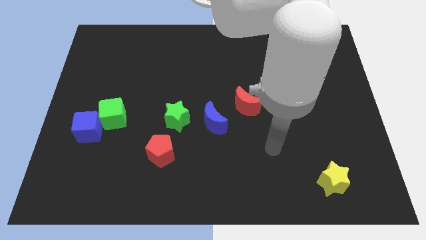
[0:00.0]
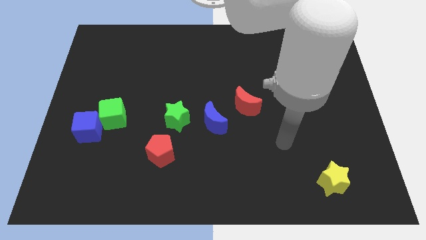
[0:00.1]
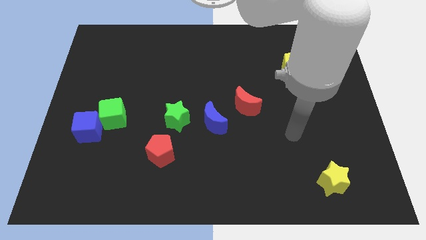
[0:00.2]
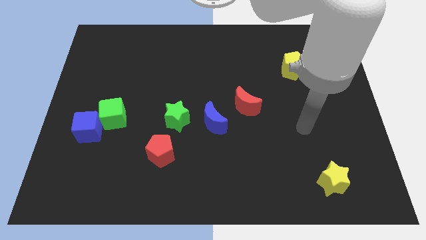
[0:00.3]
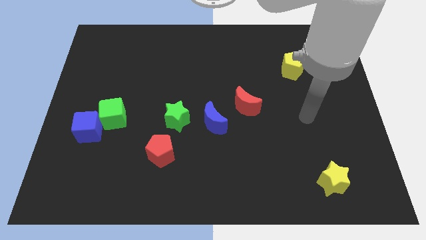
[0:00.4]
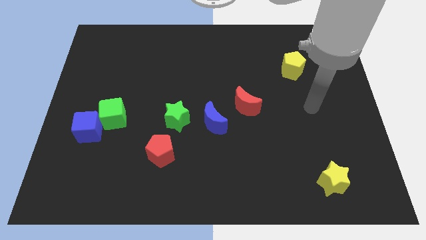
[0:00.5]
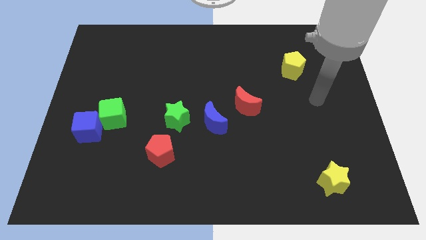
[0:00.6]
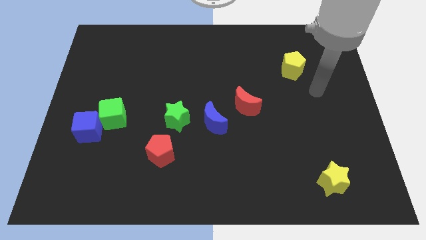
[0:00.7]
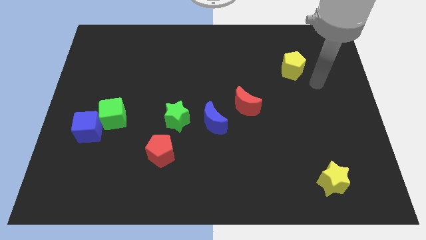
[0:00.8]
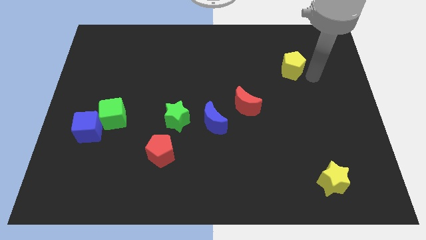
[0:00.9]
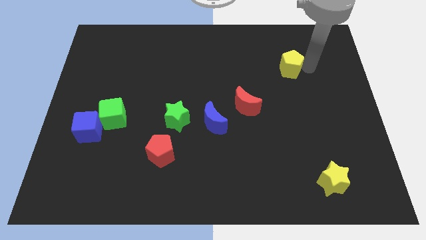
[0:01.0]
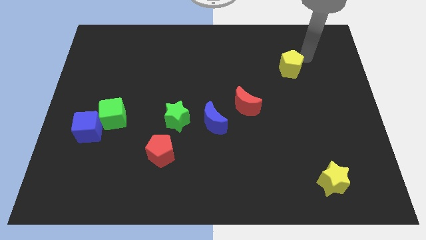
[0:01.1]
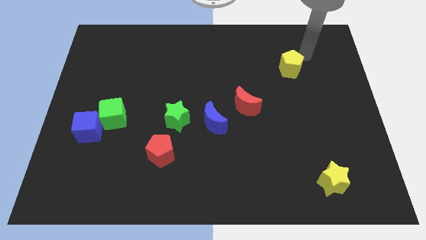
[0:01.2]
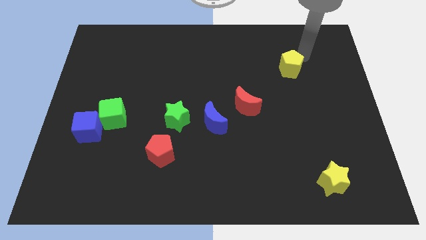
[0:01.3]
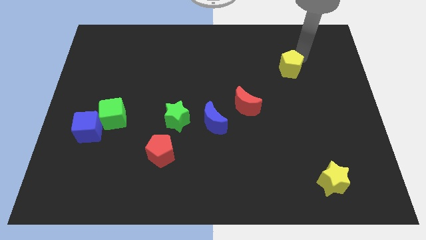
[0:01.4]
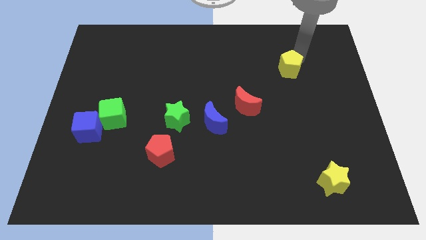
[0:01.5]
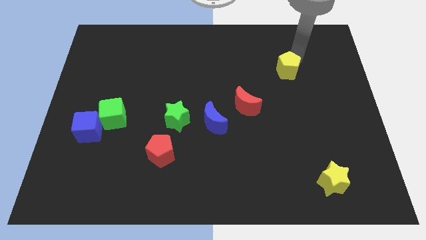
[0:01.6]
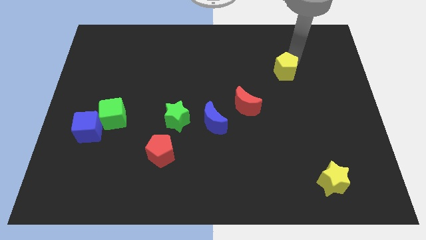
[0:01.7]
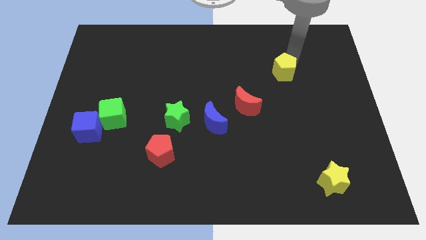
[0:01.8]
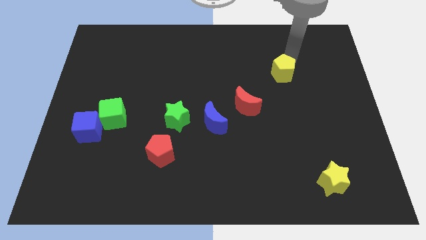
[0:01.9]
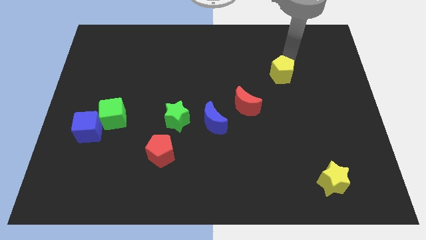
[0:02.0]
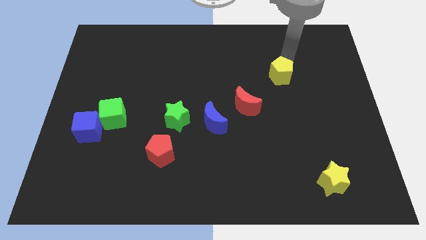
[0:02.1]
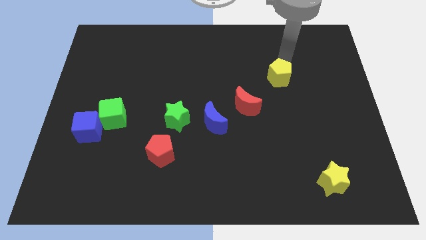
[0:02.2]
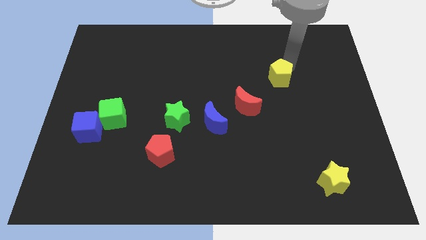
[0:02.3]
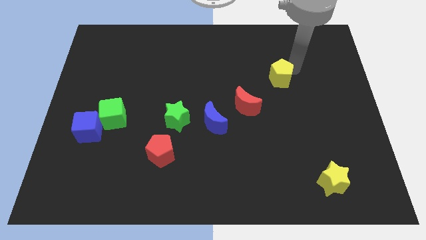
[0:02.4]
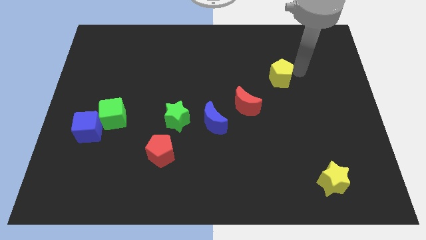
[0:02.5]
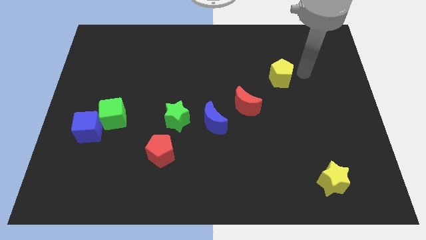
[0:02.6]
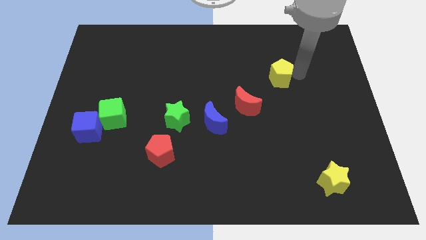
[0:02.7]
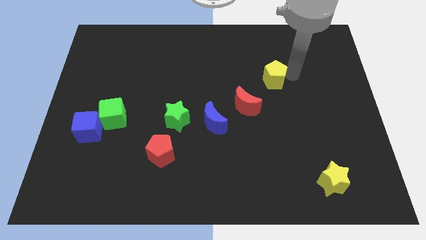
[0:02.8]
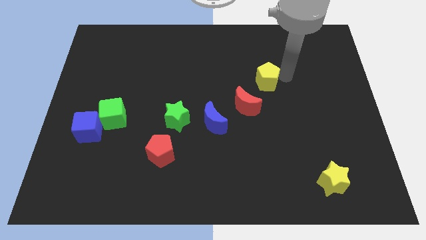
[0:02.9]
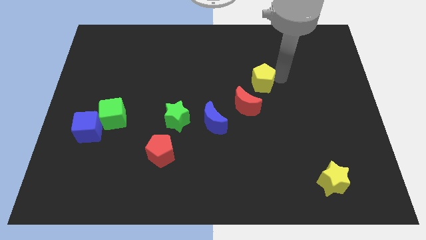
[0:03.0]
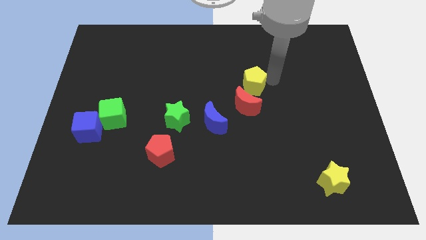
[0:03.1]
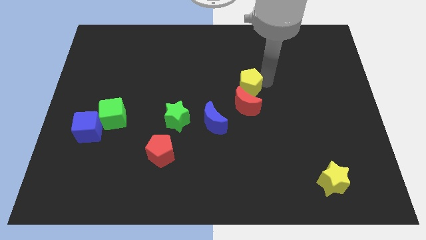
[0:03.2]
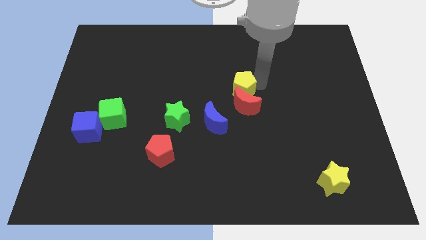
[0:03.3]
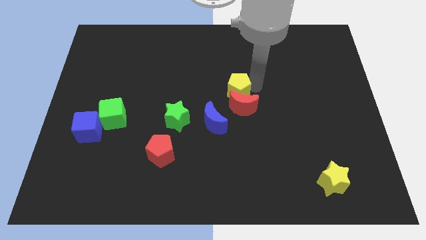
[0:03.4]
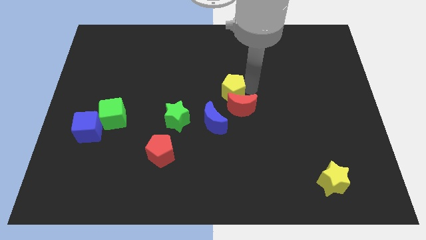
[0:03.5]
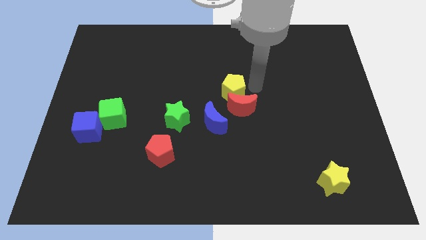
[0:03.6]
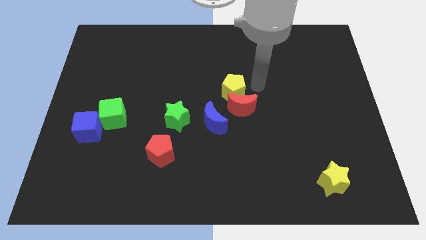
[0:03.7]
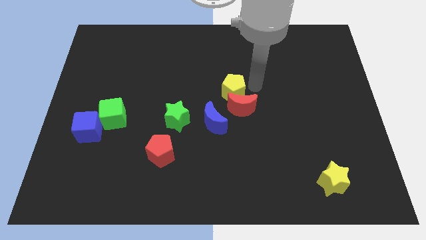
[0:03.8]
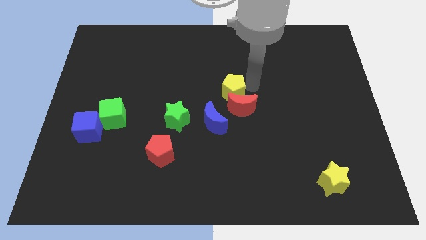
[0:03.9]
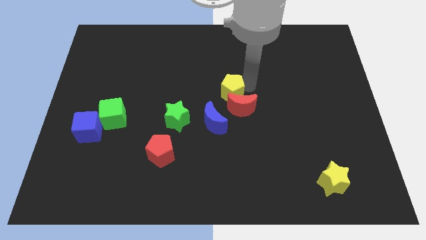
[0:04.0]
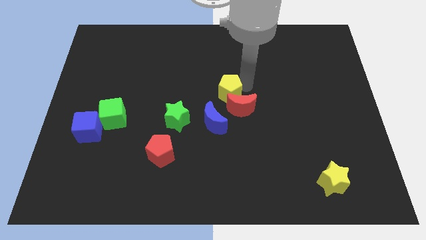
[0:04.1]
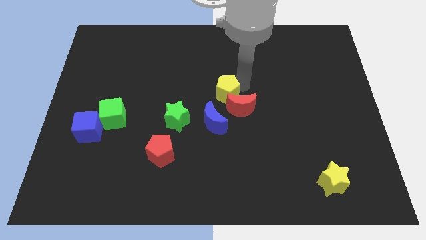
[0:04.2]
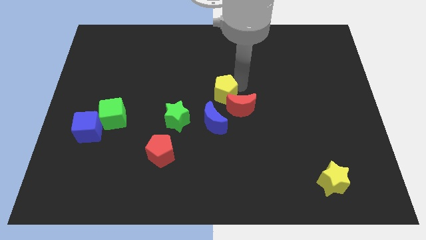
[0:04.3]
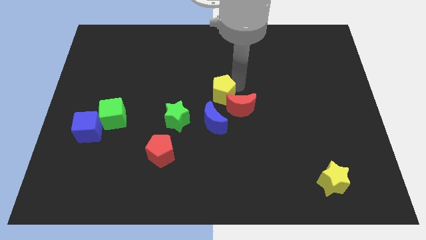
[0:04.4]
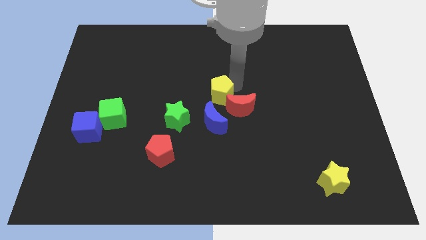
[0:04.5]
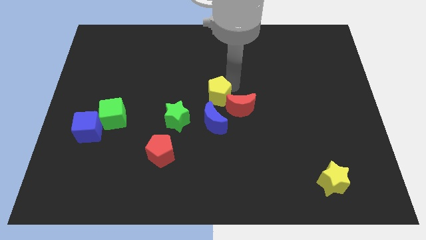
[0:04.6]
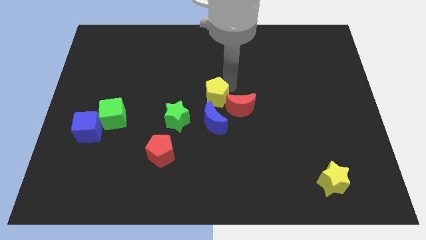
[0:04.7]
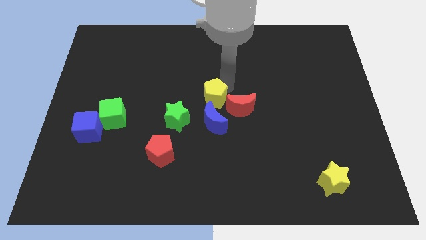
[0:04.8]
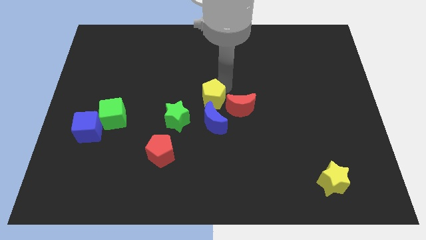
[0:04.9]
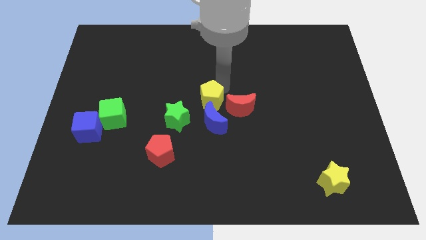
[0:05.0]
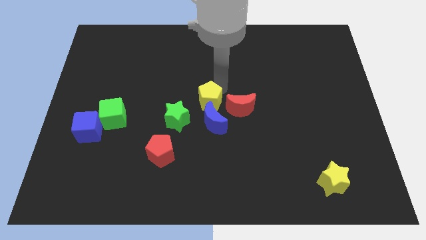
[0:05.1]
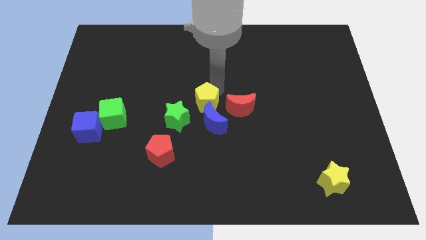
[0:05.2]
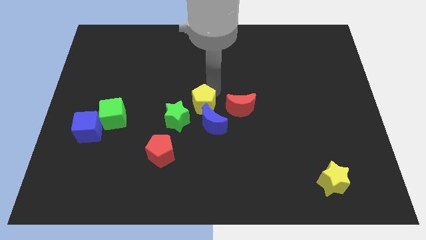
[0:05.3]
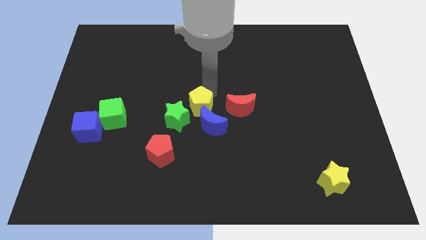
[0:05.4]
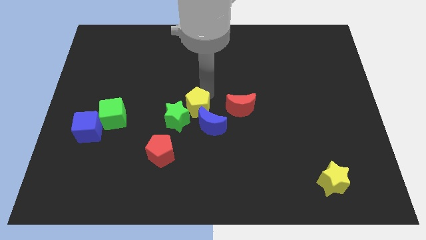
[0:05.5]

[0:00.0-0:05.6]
push the yellow pentagon towards the green star

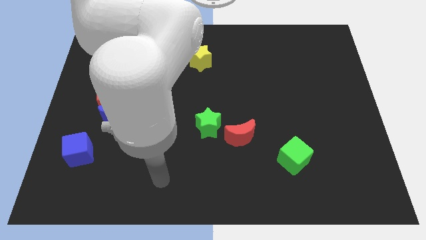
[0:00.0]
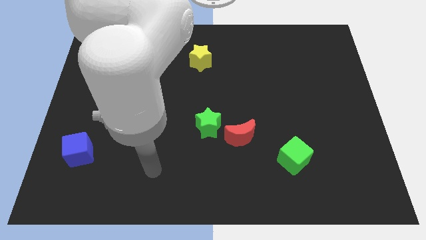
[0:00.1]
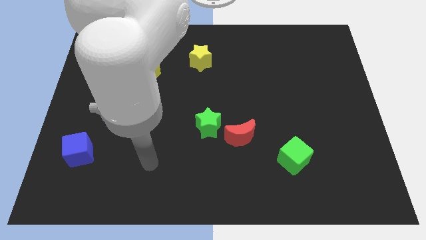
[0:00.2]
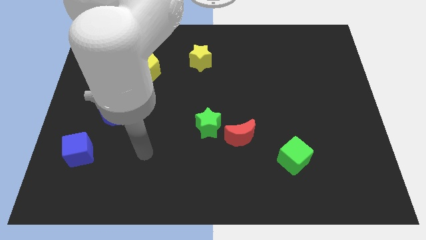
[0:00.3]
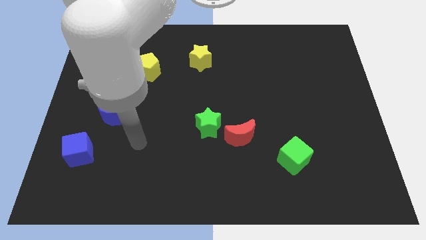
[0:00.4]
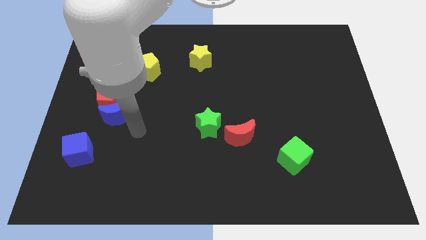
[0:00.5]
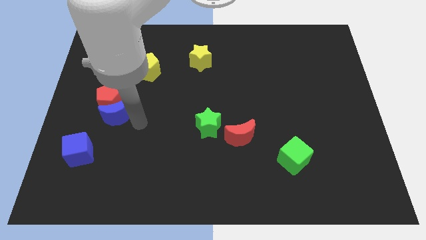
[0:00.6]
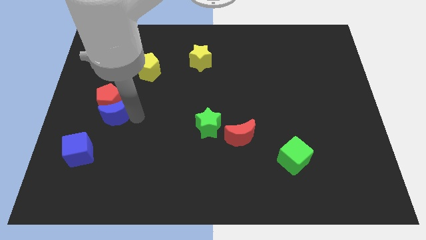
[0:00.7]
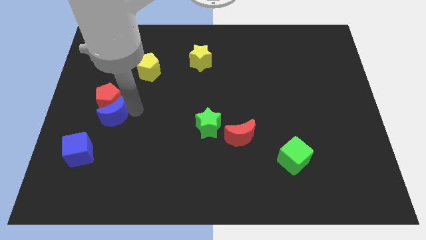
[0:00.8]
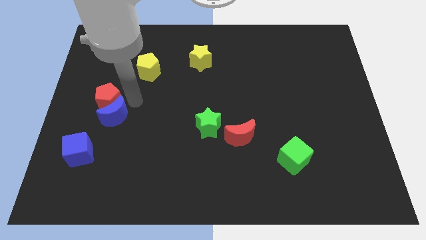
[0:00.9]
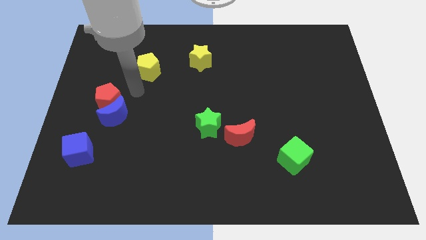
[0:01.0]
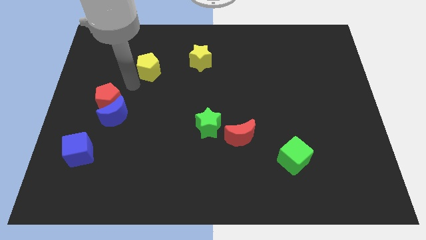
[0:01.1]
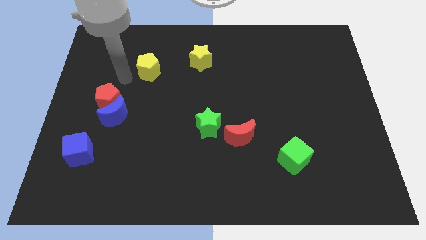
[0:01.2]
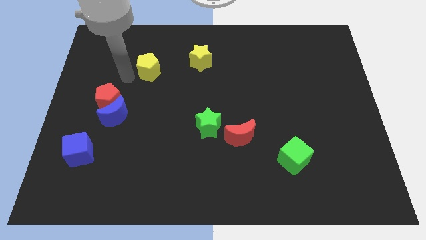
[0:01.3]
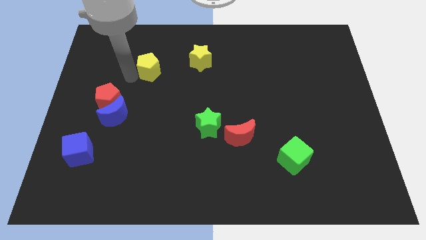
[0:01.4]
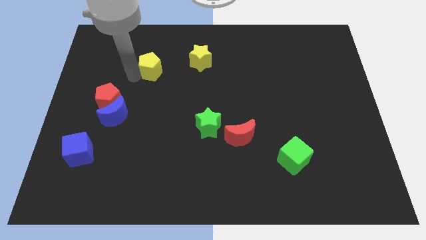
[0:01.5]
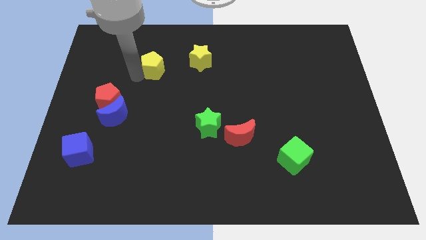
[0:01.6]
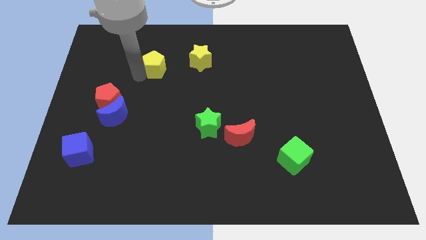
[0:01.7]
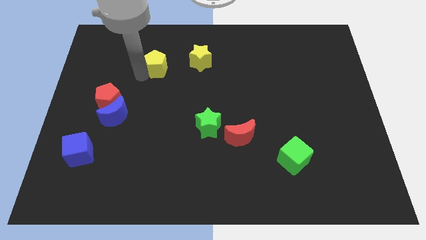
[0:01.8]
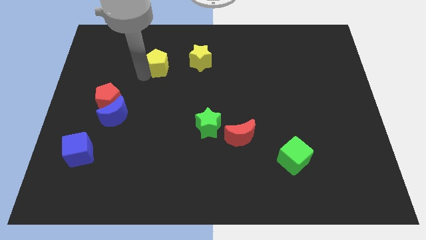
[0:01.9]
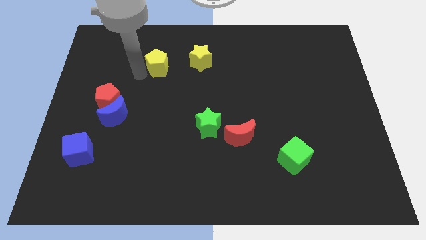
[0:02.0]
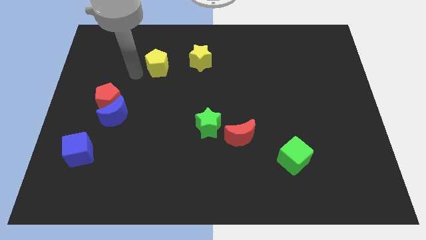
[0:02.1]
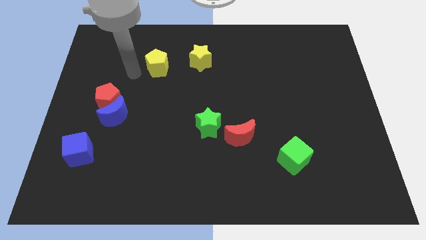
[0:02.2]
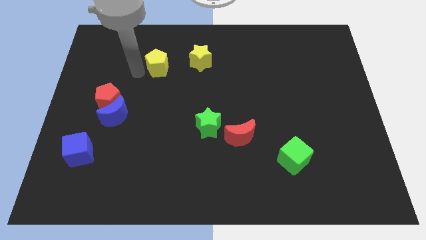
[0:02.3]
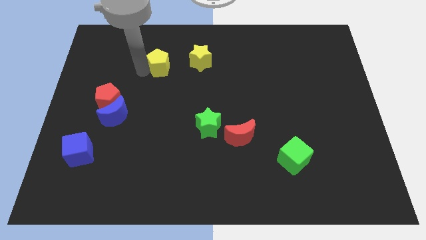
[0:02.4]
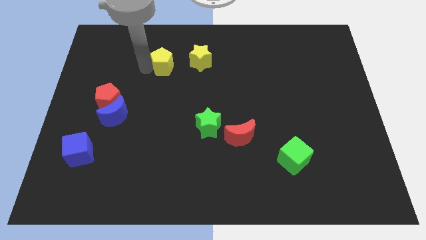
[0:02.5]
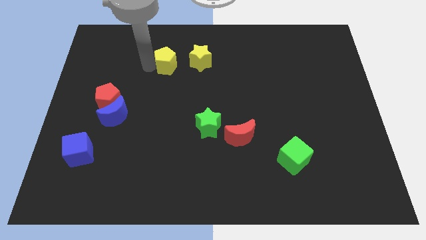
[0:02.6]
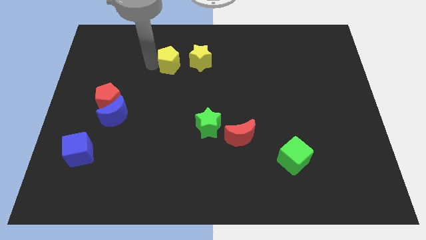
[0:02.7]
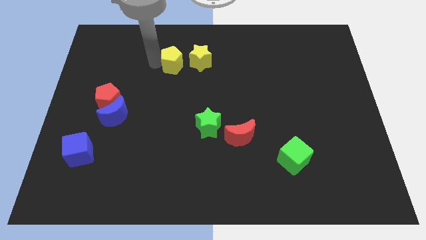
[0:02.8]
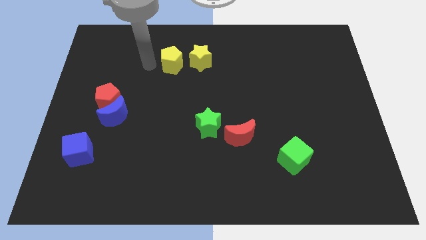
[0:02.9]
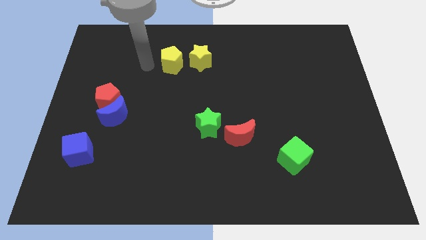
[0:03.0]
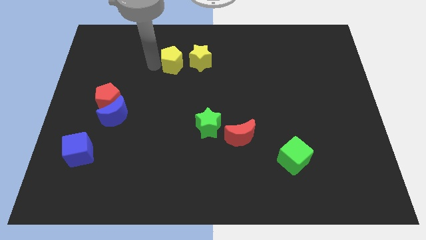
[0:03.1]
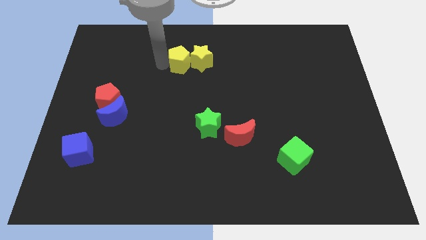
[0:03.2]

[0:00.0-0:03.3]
put the yellow pentagon to the yellow star

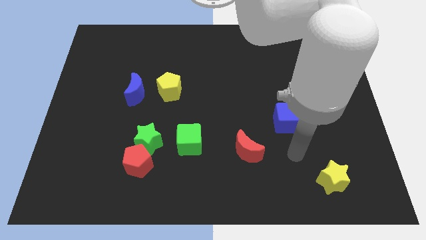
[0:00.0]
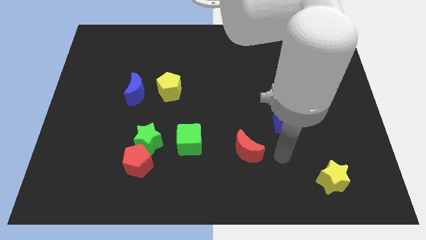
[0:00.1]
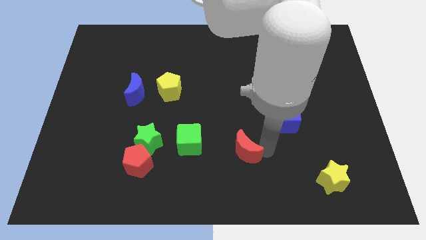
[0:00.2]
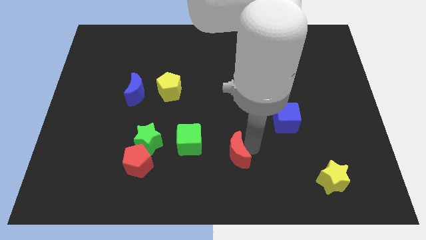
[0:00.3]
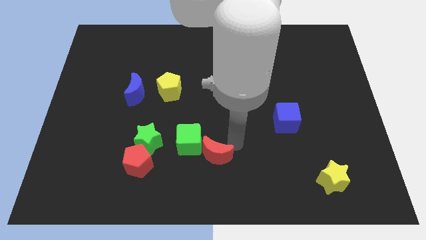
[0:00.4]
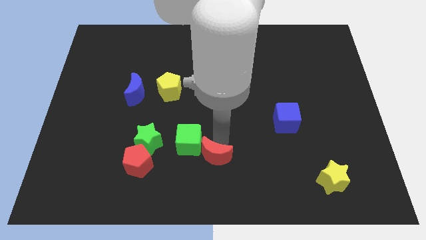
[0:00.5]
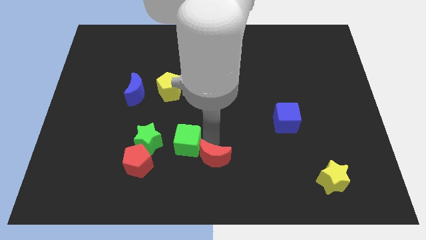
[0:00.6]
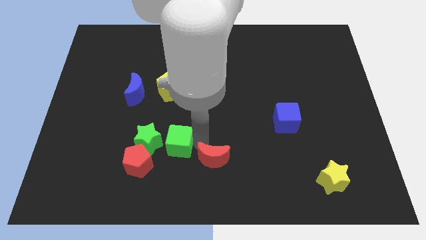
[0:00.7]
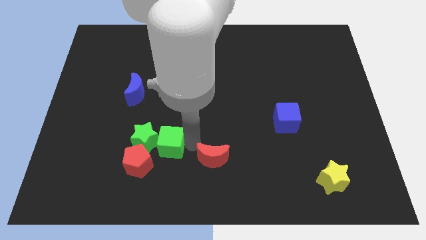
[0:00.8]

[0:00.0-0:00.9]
slide the green cube next to the green star
